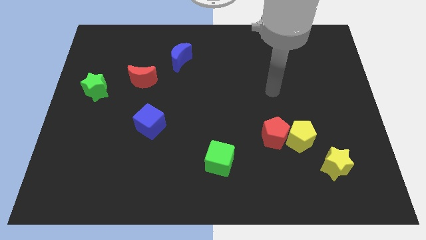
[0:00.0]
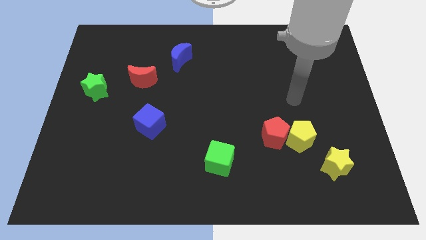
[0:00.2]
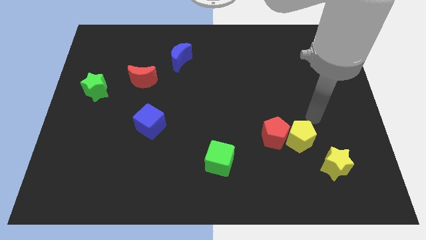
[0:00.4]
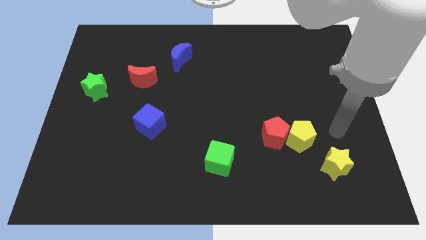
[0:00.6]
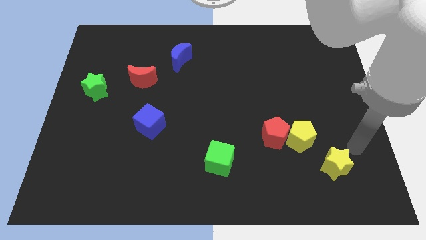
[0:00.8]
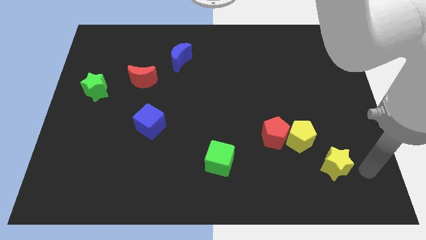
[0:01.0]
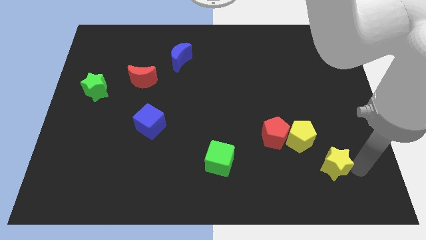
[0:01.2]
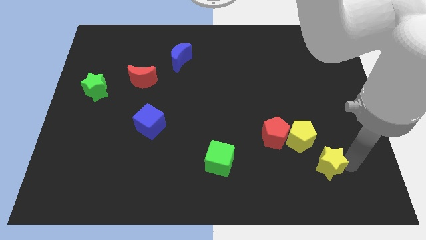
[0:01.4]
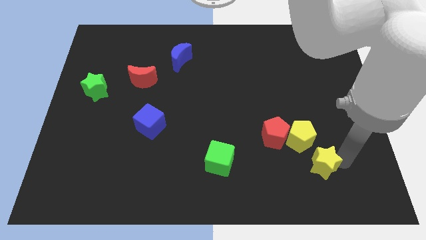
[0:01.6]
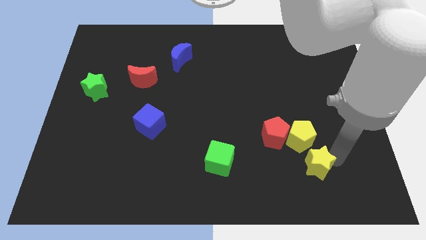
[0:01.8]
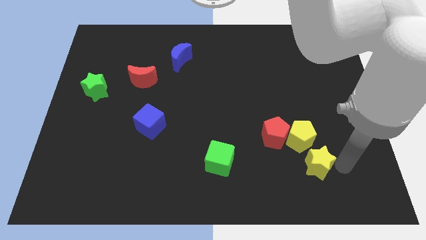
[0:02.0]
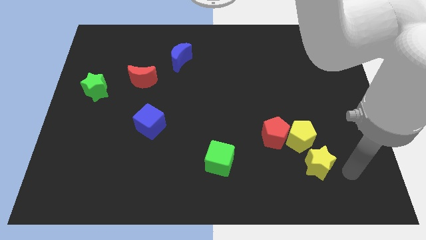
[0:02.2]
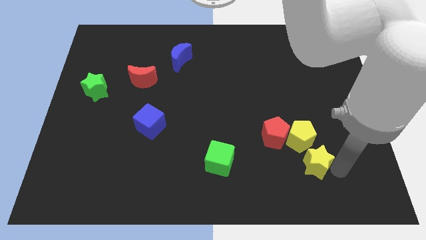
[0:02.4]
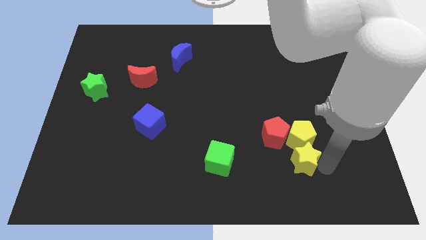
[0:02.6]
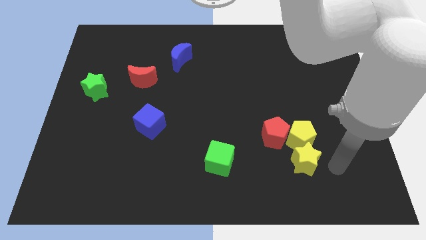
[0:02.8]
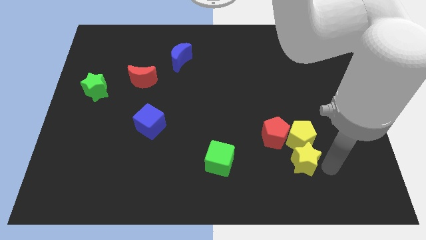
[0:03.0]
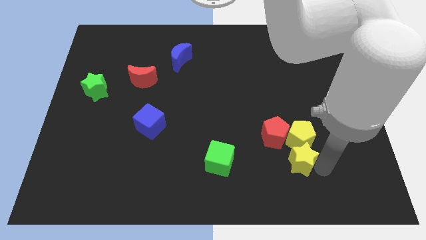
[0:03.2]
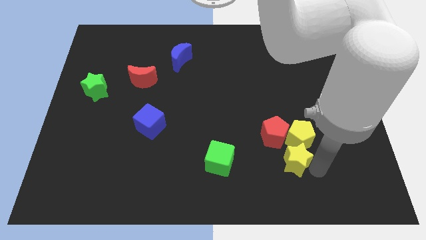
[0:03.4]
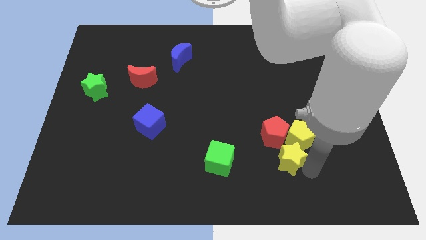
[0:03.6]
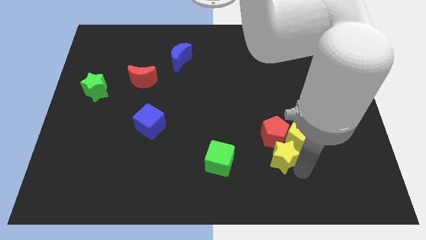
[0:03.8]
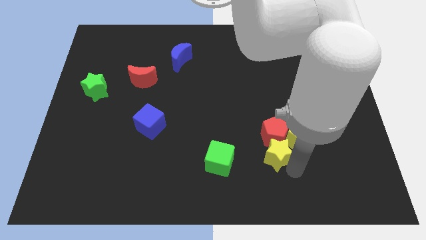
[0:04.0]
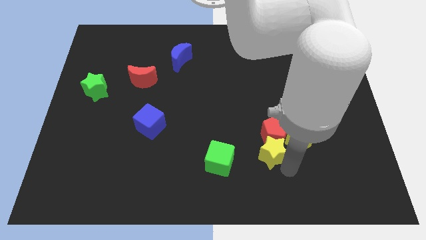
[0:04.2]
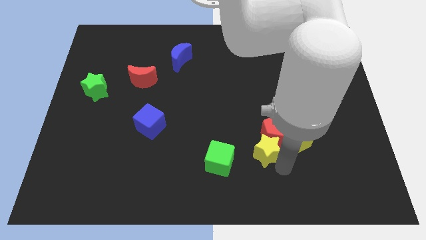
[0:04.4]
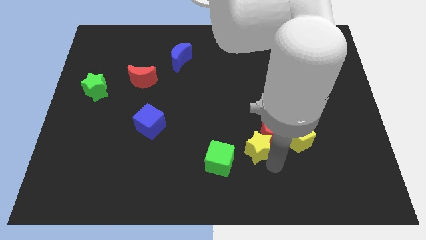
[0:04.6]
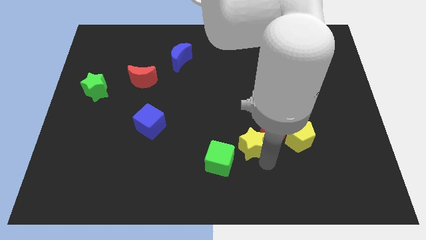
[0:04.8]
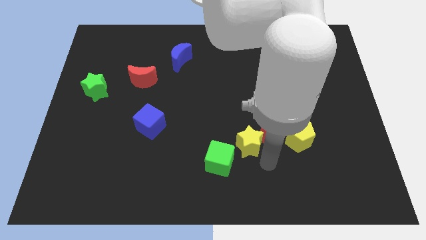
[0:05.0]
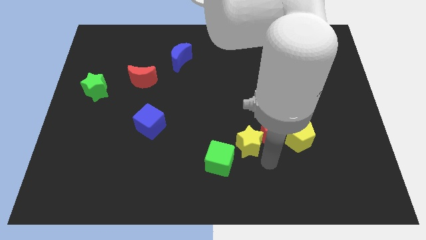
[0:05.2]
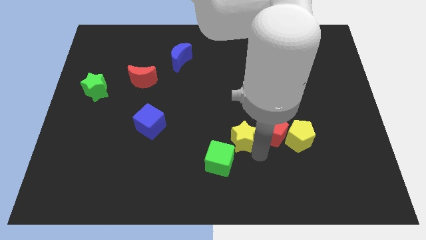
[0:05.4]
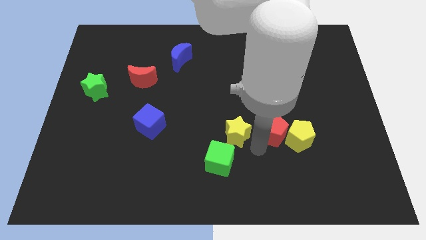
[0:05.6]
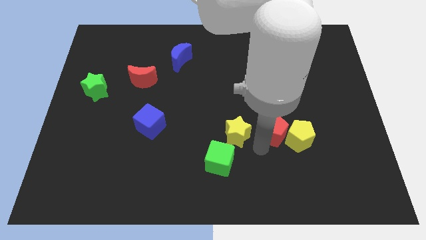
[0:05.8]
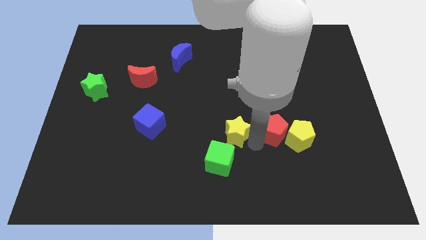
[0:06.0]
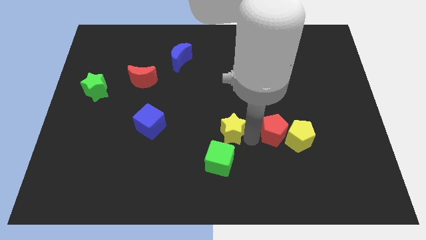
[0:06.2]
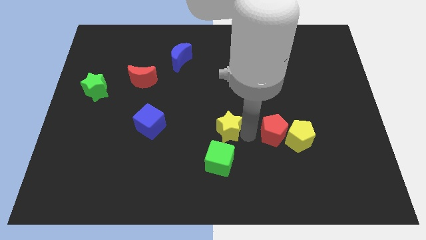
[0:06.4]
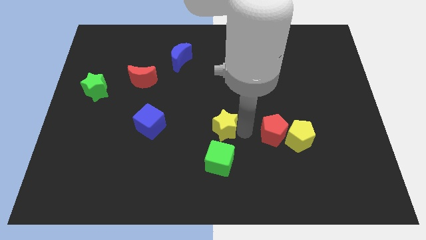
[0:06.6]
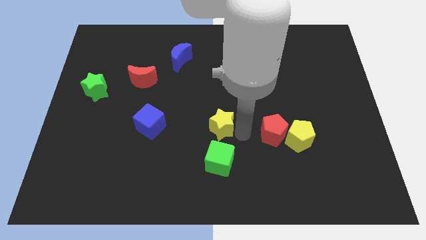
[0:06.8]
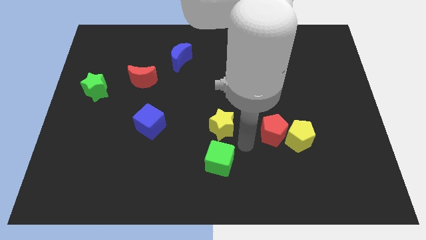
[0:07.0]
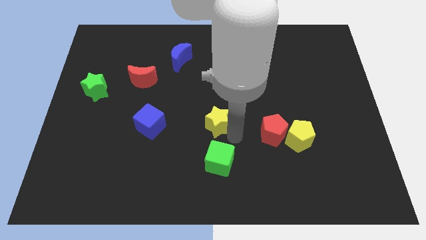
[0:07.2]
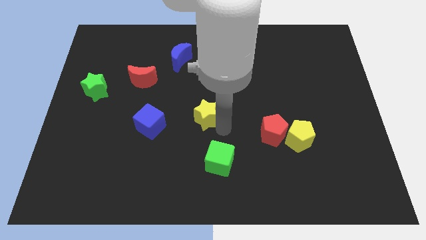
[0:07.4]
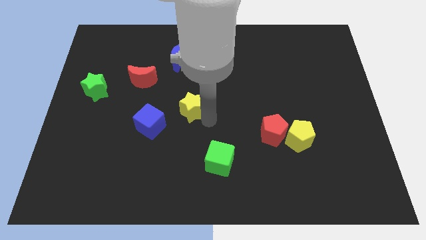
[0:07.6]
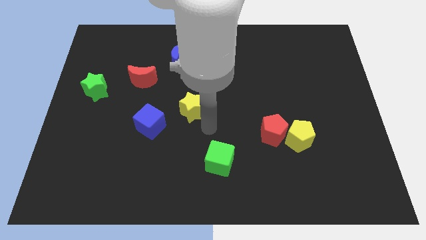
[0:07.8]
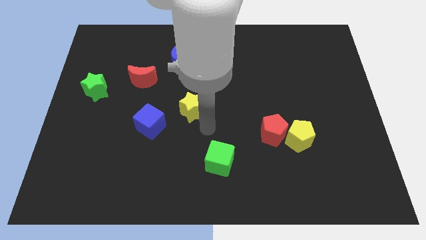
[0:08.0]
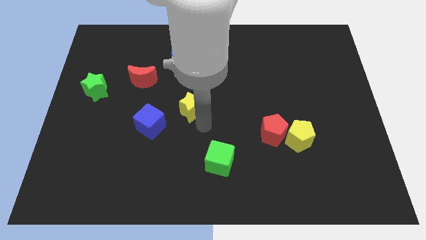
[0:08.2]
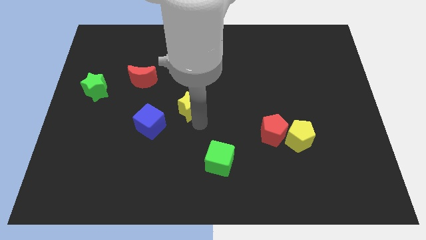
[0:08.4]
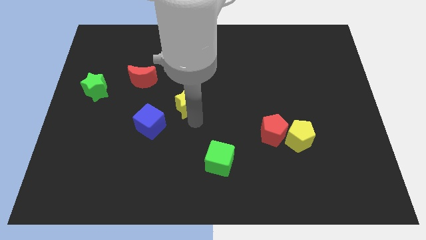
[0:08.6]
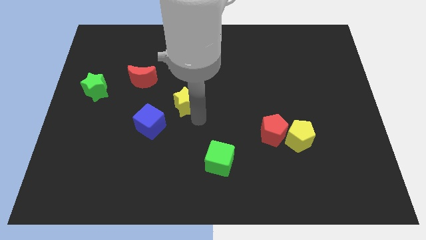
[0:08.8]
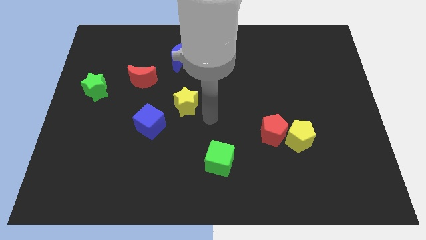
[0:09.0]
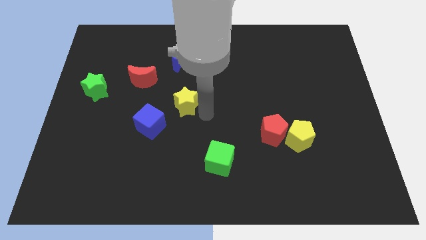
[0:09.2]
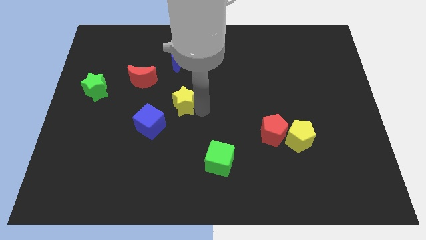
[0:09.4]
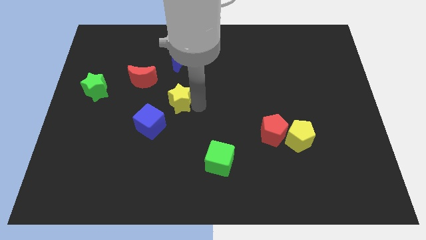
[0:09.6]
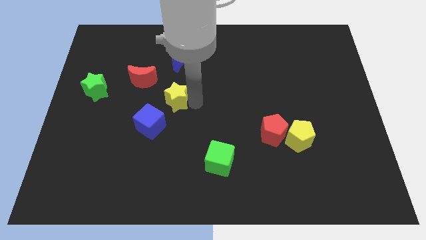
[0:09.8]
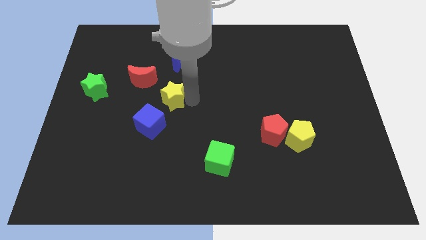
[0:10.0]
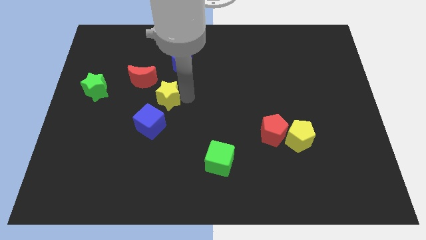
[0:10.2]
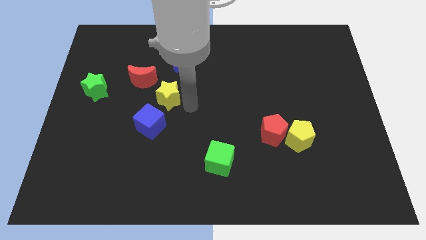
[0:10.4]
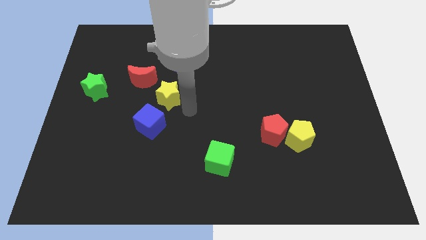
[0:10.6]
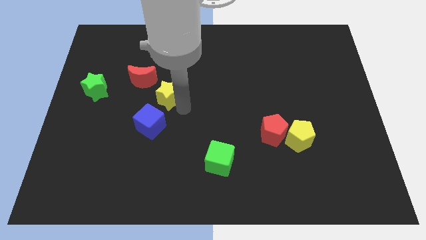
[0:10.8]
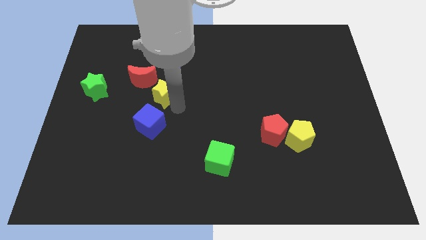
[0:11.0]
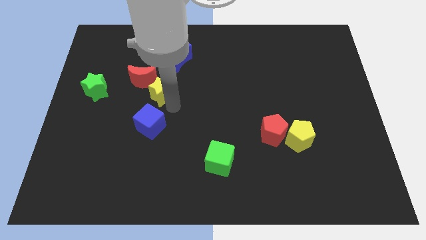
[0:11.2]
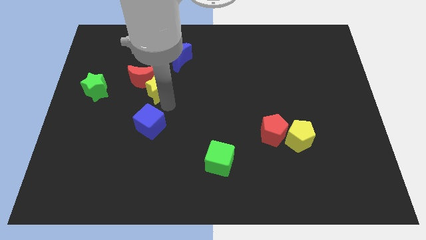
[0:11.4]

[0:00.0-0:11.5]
slide the yellow star towards the red moon

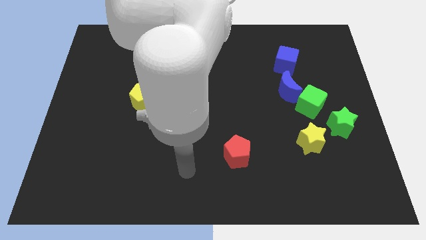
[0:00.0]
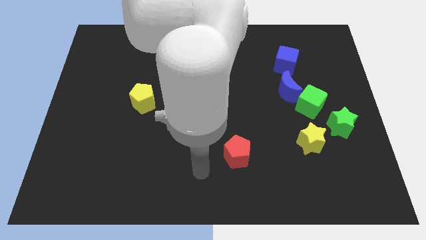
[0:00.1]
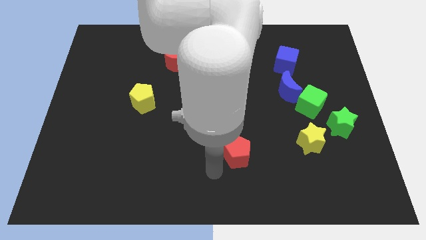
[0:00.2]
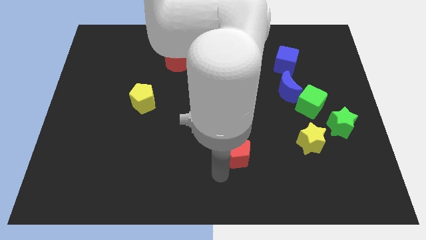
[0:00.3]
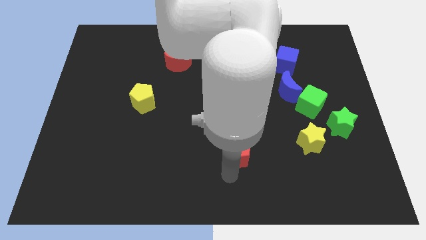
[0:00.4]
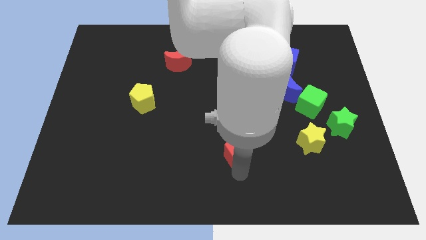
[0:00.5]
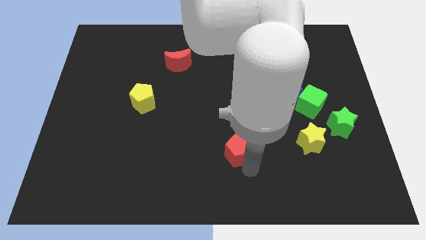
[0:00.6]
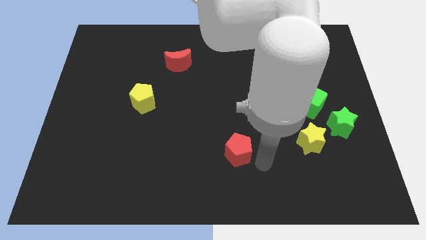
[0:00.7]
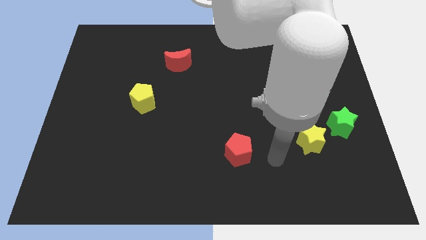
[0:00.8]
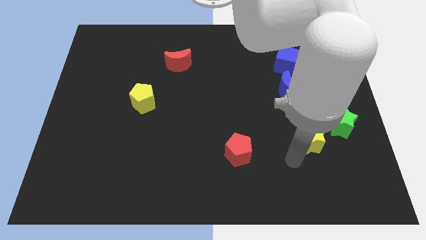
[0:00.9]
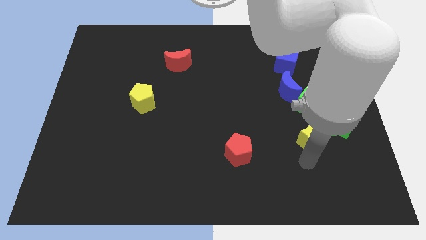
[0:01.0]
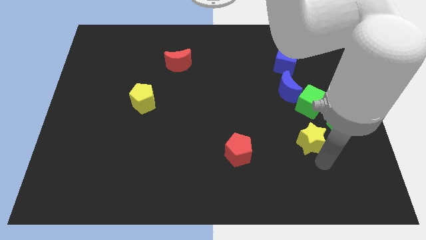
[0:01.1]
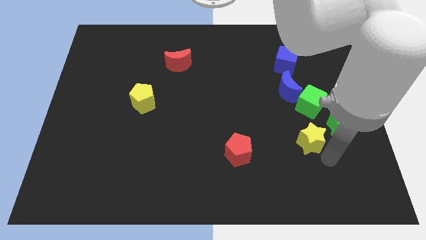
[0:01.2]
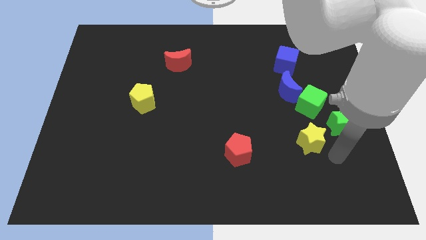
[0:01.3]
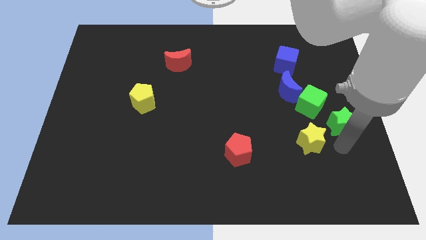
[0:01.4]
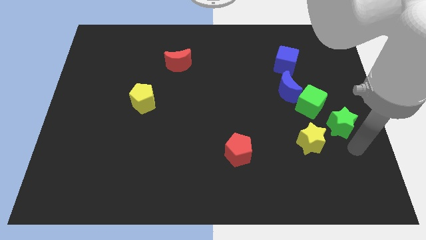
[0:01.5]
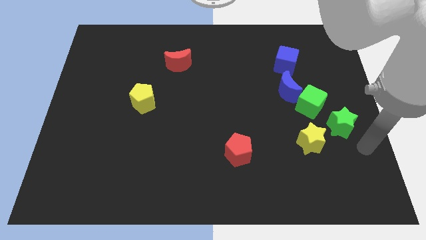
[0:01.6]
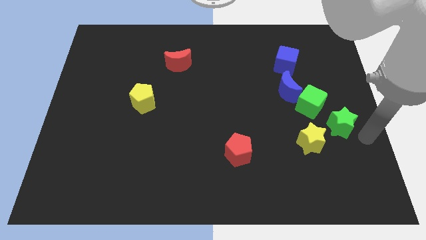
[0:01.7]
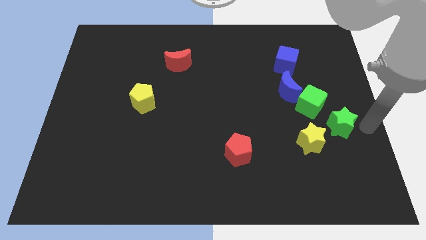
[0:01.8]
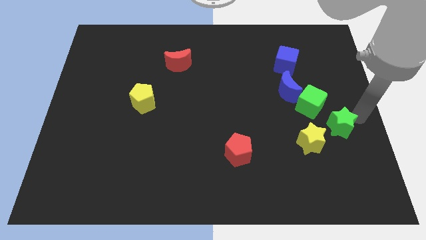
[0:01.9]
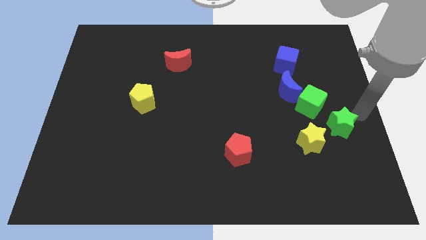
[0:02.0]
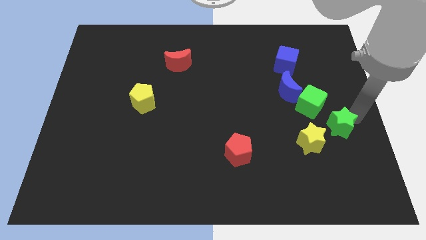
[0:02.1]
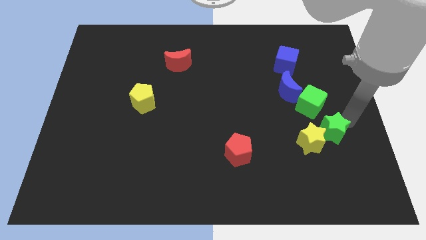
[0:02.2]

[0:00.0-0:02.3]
put the green star next to the yellow star
